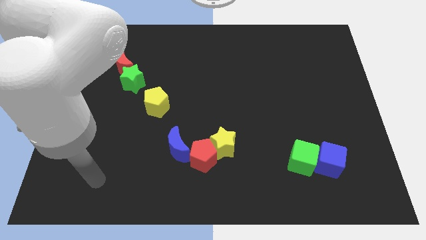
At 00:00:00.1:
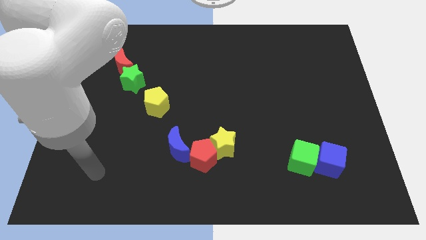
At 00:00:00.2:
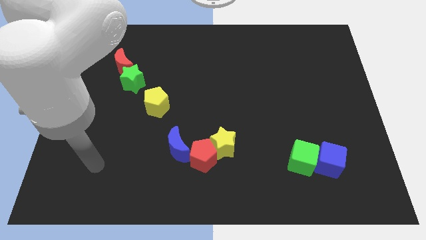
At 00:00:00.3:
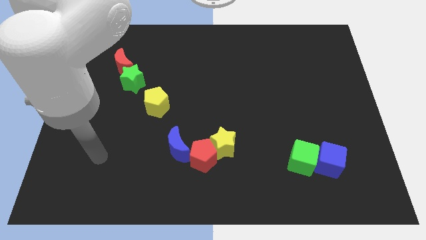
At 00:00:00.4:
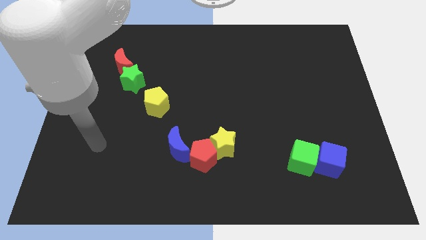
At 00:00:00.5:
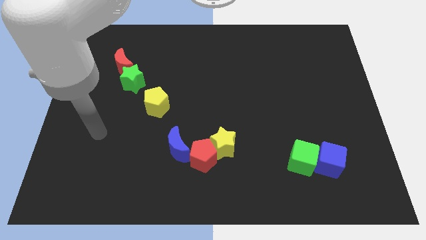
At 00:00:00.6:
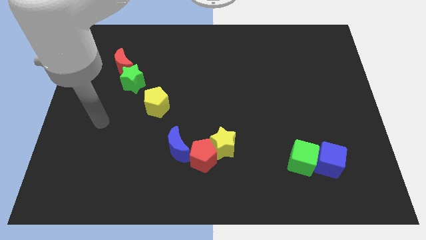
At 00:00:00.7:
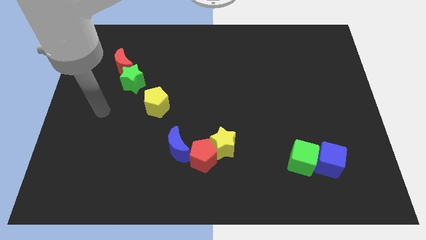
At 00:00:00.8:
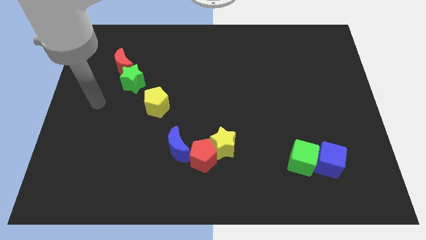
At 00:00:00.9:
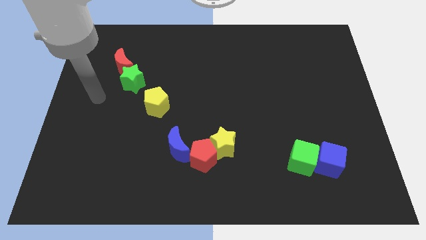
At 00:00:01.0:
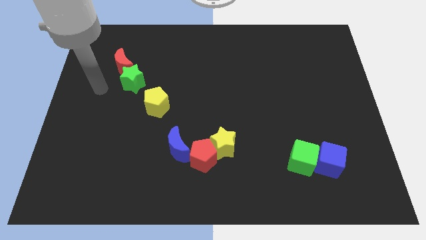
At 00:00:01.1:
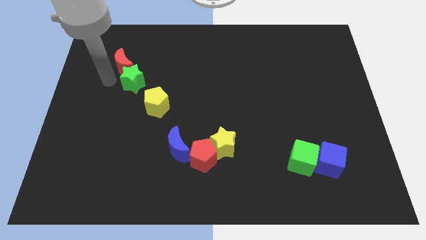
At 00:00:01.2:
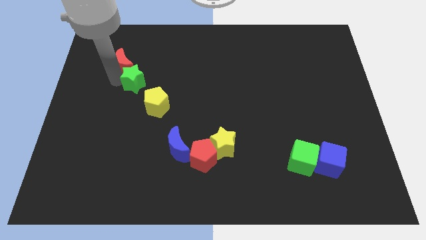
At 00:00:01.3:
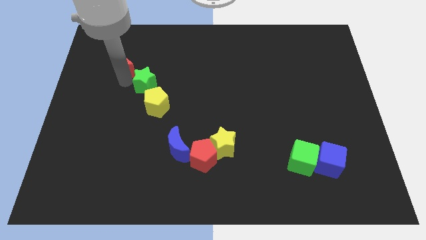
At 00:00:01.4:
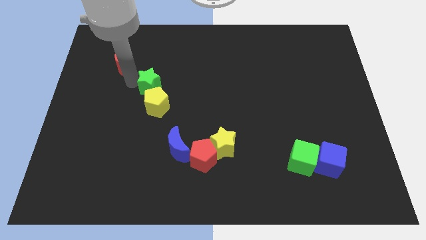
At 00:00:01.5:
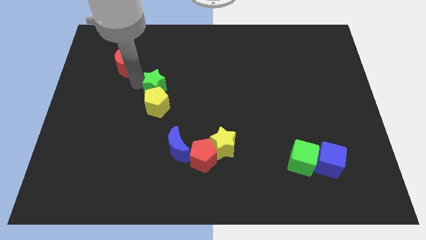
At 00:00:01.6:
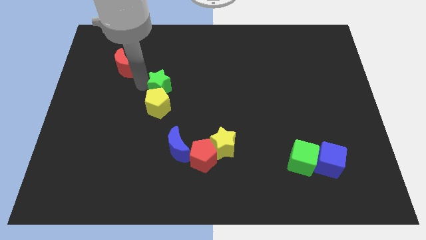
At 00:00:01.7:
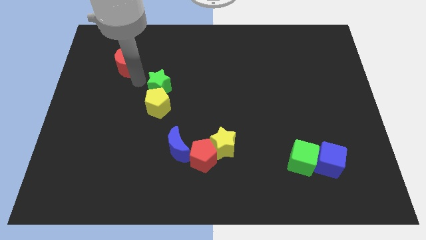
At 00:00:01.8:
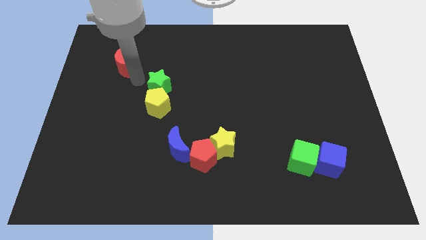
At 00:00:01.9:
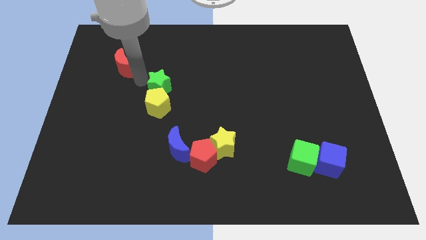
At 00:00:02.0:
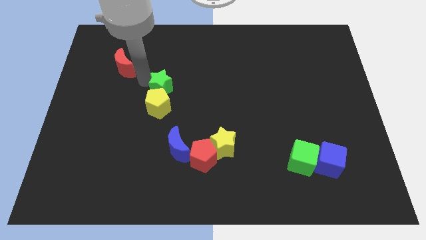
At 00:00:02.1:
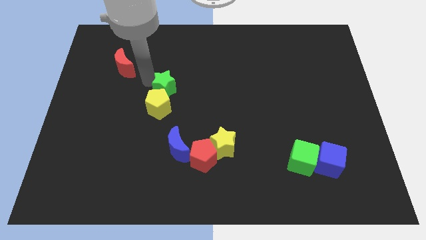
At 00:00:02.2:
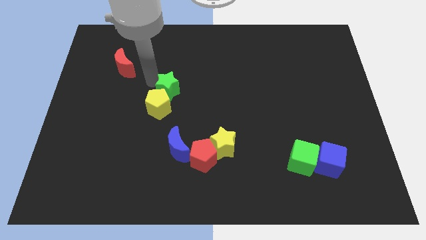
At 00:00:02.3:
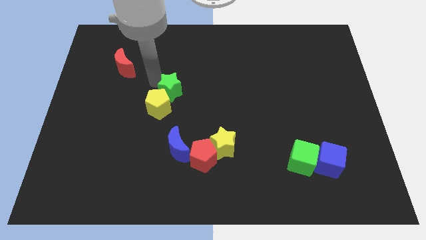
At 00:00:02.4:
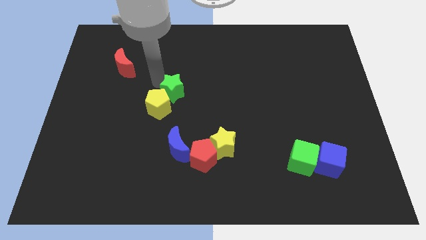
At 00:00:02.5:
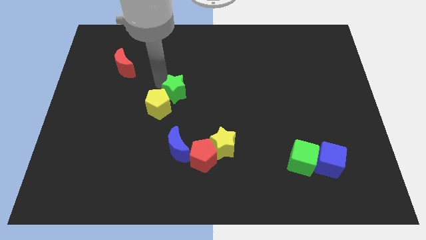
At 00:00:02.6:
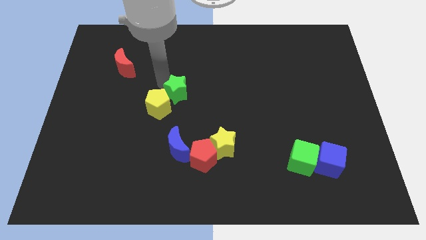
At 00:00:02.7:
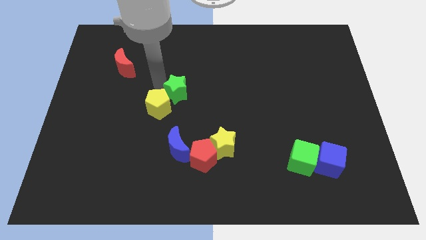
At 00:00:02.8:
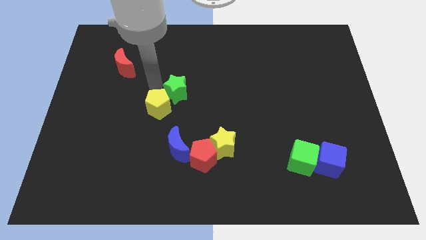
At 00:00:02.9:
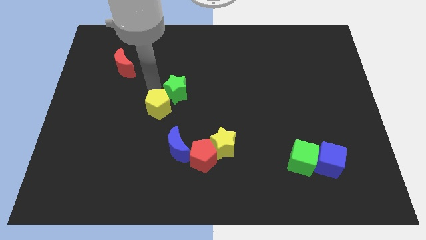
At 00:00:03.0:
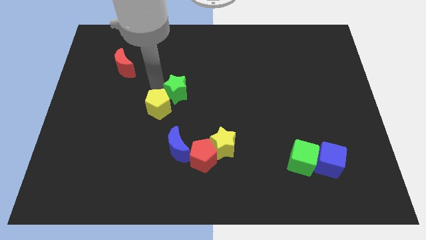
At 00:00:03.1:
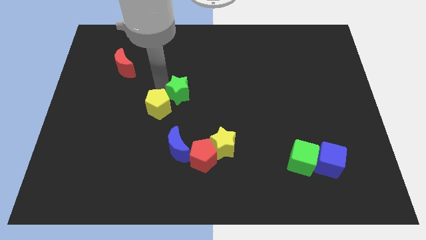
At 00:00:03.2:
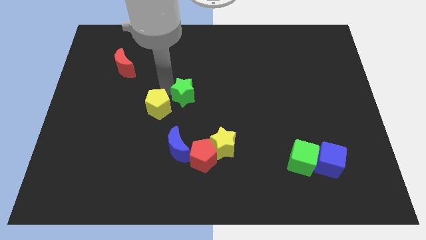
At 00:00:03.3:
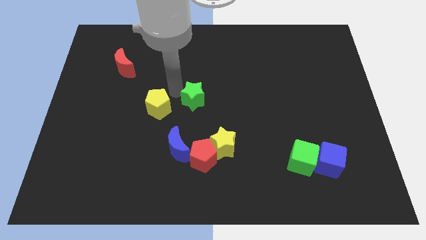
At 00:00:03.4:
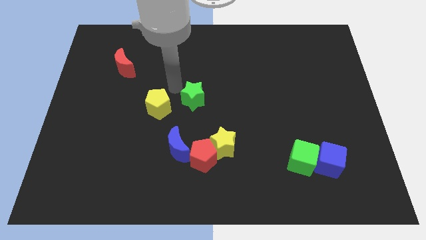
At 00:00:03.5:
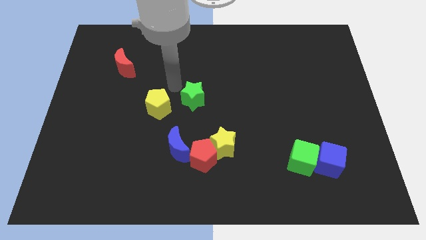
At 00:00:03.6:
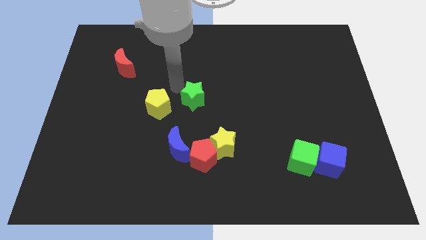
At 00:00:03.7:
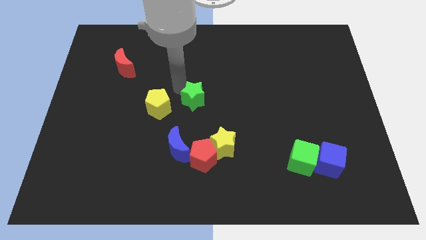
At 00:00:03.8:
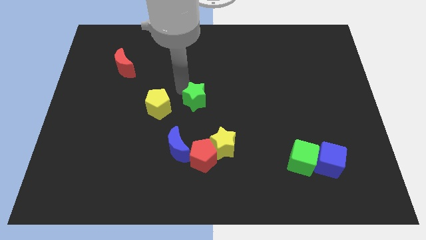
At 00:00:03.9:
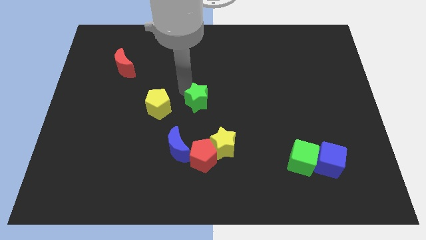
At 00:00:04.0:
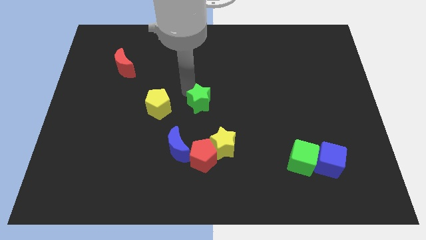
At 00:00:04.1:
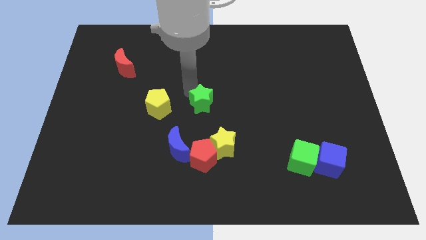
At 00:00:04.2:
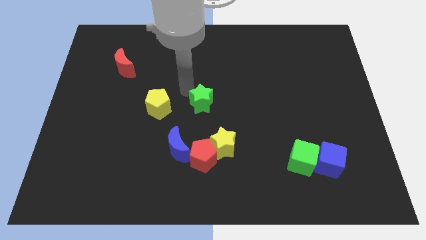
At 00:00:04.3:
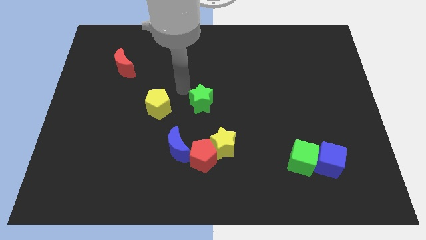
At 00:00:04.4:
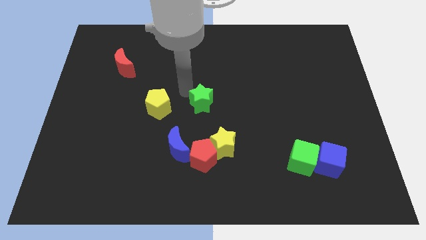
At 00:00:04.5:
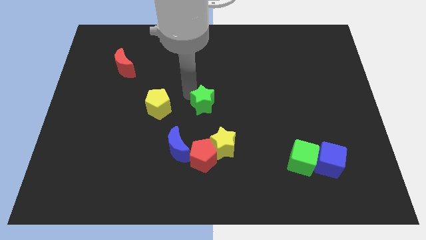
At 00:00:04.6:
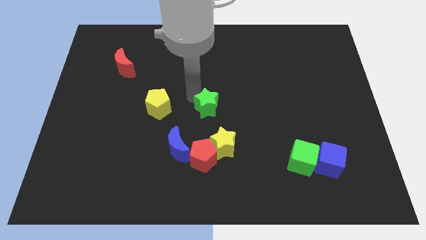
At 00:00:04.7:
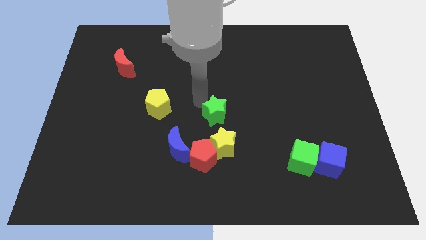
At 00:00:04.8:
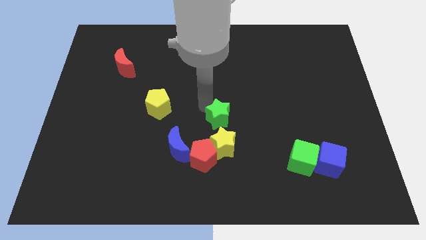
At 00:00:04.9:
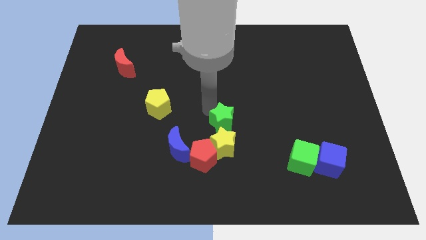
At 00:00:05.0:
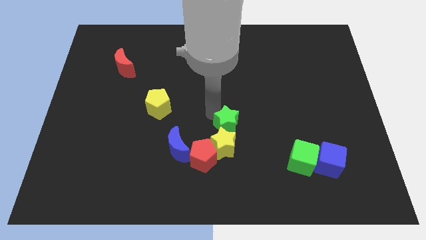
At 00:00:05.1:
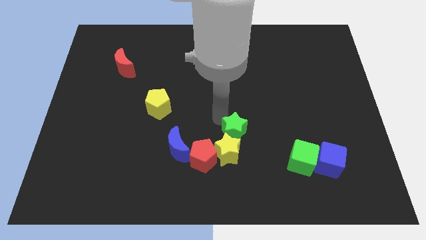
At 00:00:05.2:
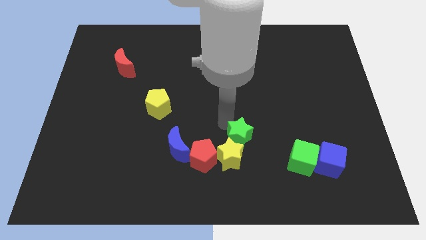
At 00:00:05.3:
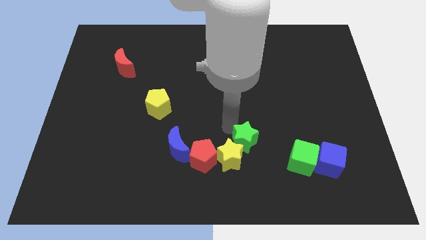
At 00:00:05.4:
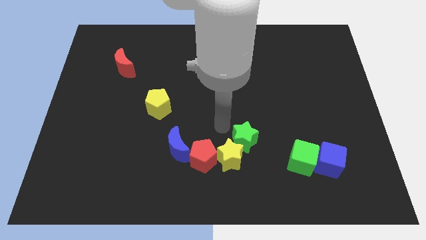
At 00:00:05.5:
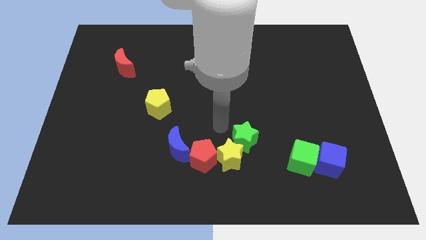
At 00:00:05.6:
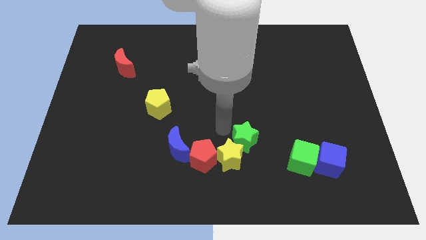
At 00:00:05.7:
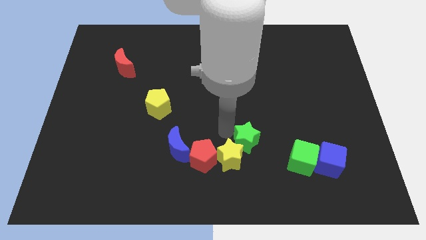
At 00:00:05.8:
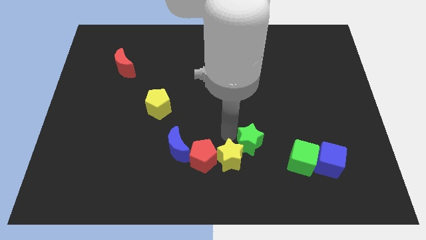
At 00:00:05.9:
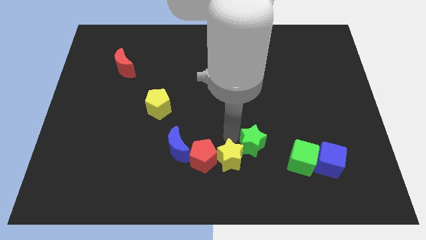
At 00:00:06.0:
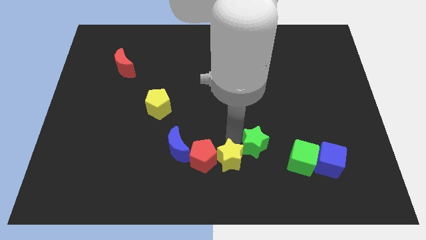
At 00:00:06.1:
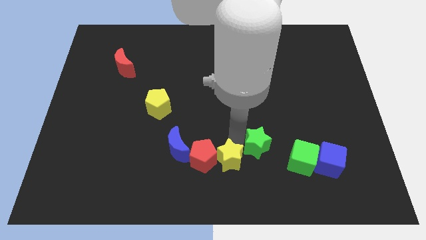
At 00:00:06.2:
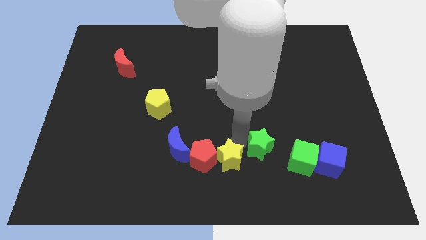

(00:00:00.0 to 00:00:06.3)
put the green star just left of the blue cube

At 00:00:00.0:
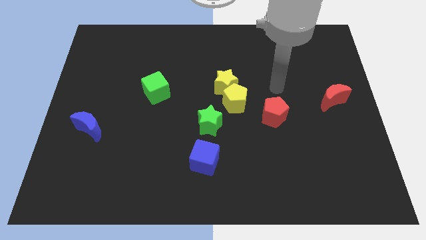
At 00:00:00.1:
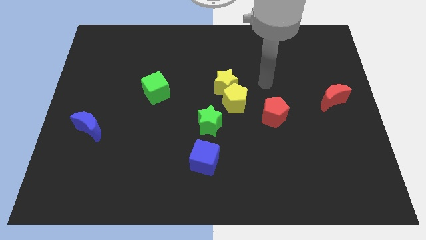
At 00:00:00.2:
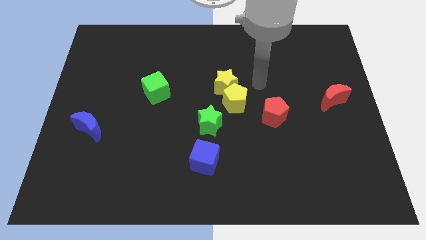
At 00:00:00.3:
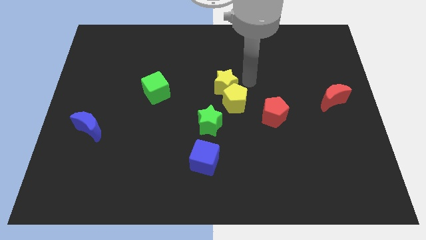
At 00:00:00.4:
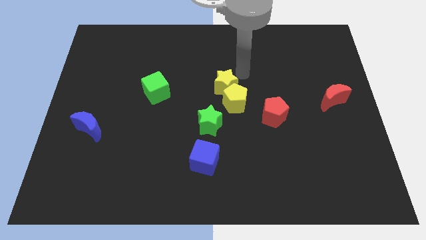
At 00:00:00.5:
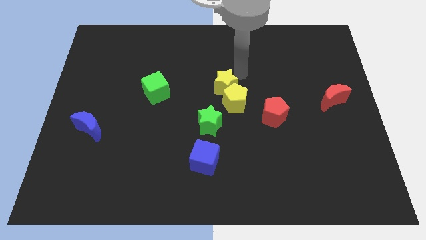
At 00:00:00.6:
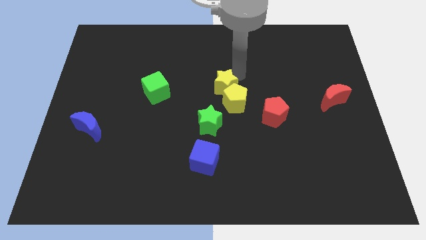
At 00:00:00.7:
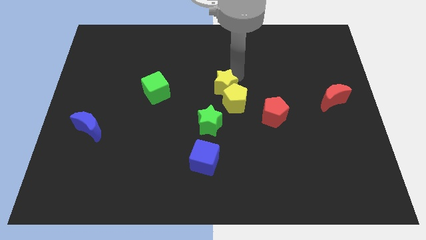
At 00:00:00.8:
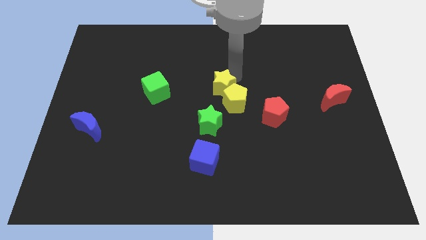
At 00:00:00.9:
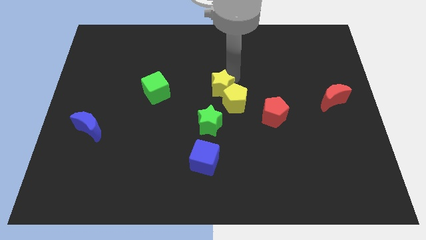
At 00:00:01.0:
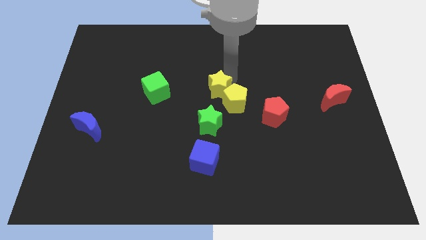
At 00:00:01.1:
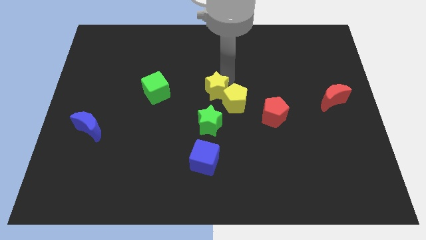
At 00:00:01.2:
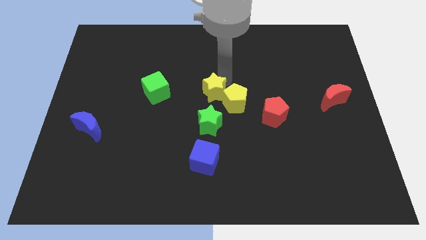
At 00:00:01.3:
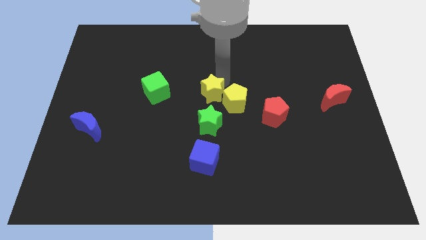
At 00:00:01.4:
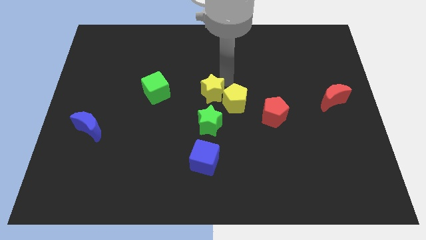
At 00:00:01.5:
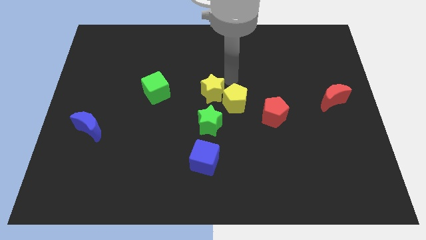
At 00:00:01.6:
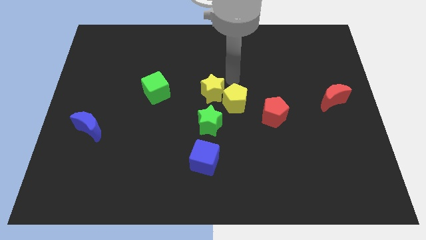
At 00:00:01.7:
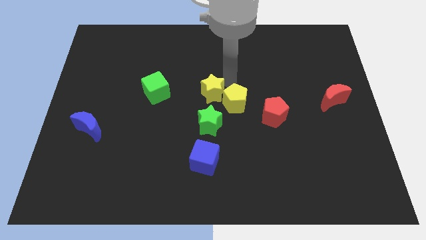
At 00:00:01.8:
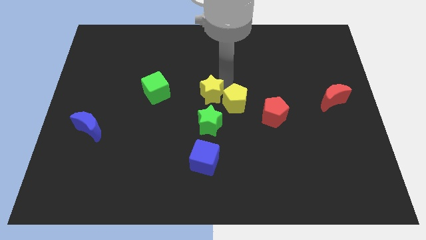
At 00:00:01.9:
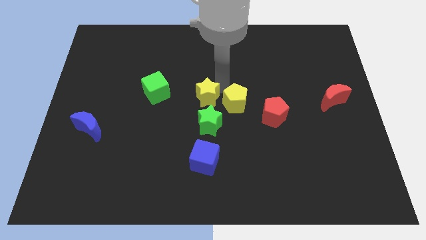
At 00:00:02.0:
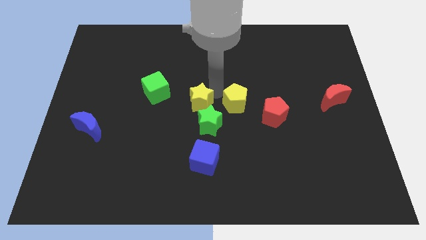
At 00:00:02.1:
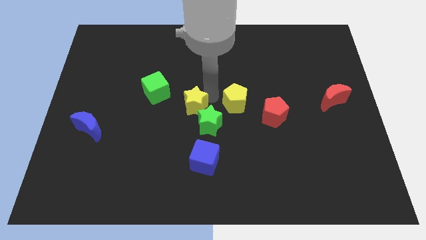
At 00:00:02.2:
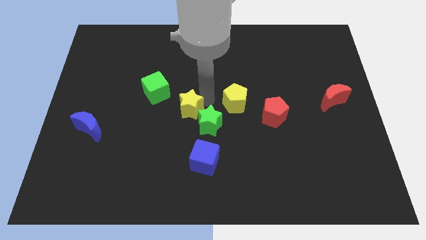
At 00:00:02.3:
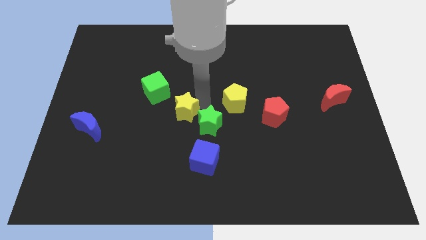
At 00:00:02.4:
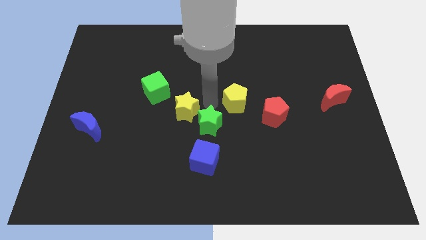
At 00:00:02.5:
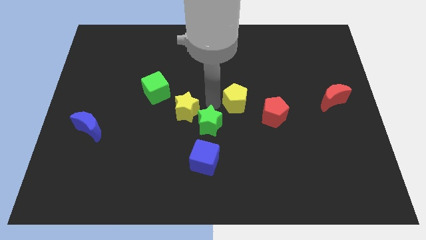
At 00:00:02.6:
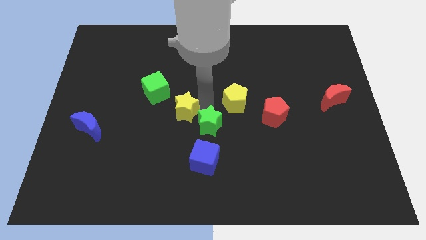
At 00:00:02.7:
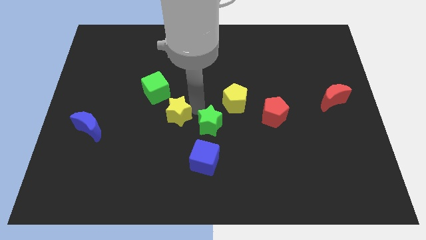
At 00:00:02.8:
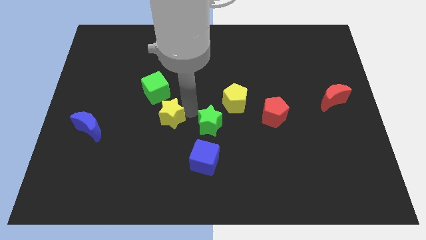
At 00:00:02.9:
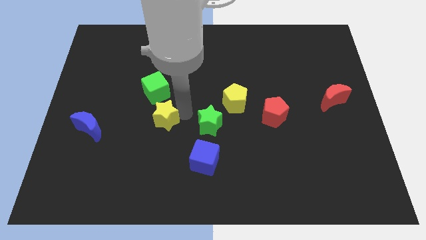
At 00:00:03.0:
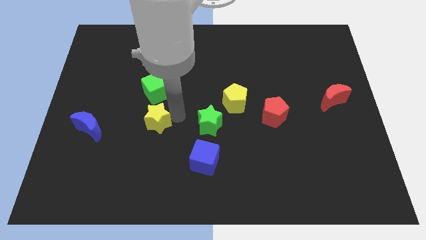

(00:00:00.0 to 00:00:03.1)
slide the yellow star right of the blue moon
